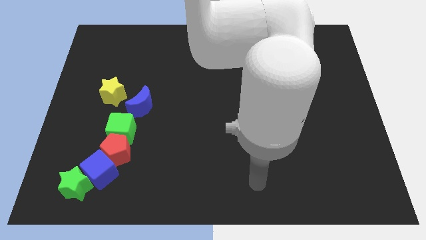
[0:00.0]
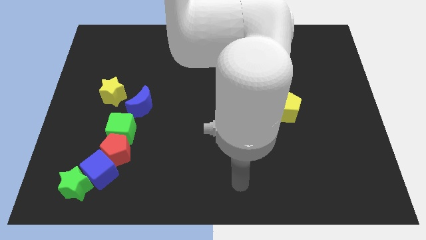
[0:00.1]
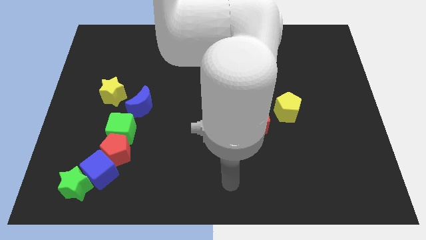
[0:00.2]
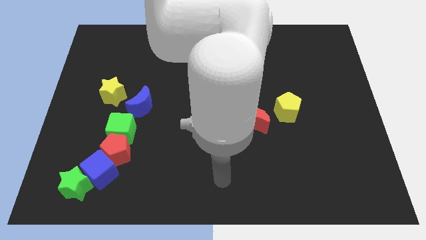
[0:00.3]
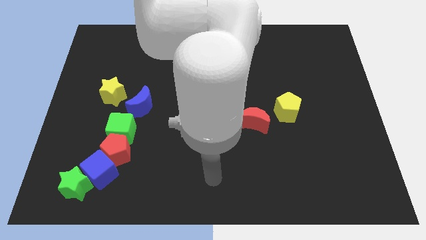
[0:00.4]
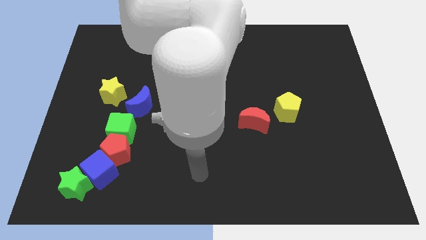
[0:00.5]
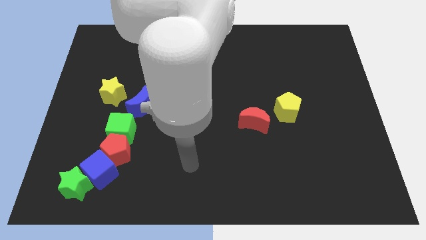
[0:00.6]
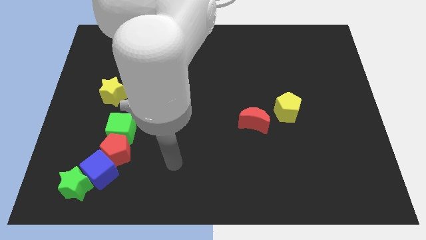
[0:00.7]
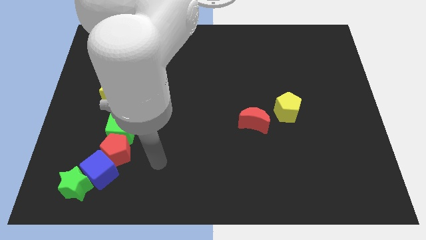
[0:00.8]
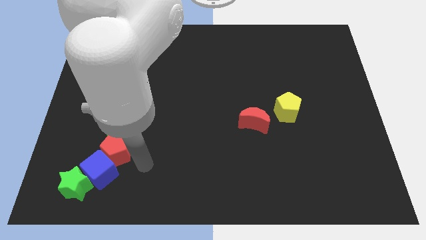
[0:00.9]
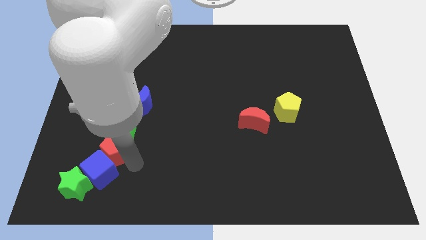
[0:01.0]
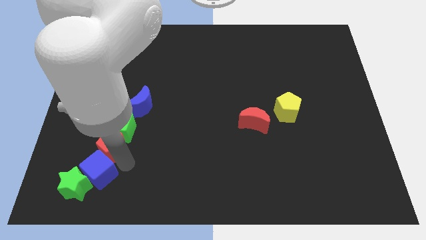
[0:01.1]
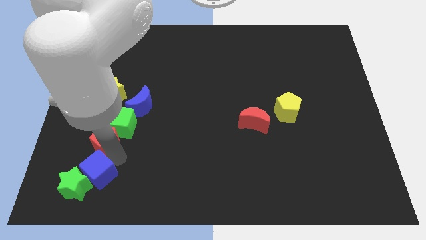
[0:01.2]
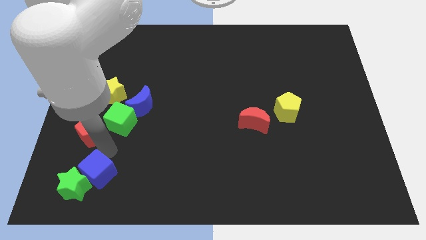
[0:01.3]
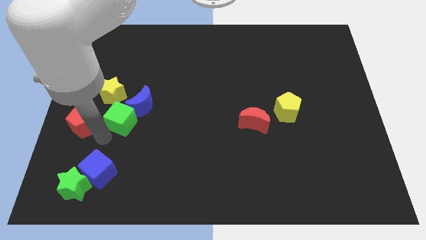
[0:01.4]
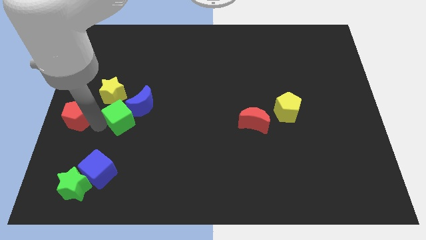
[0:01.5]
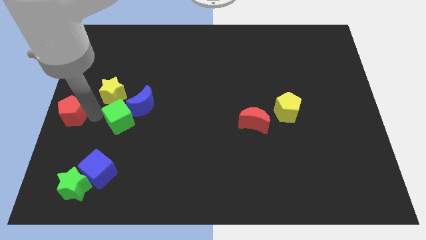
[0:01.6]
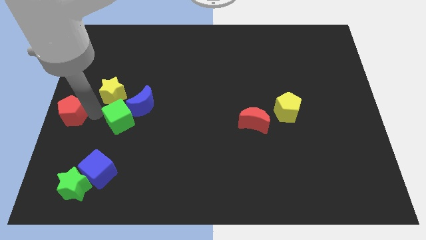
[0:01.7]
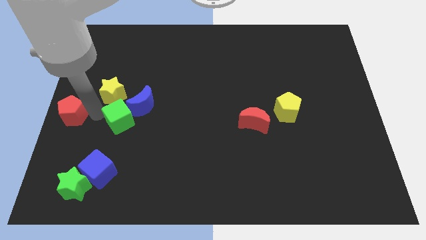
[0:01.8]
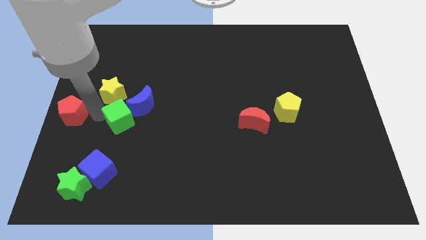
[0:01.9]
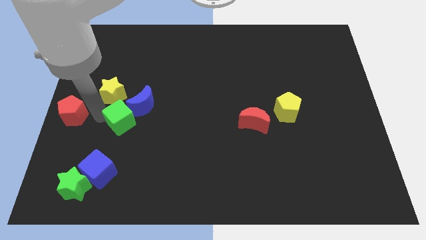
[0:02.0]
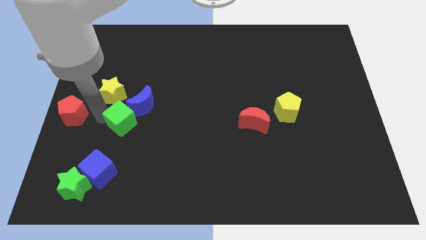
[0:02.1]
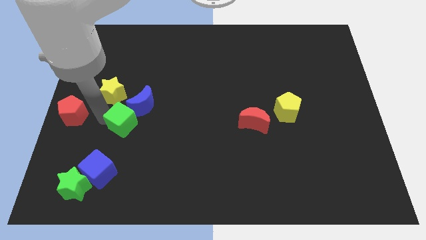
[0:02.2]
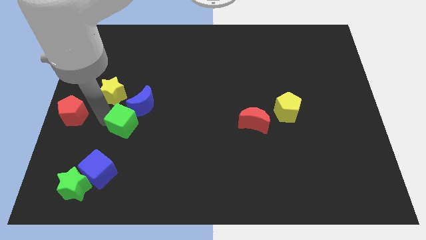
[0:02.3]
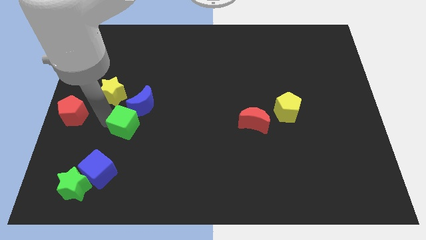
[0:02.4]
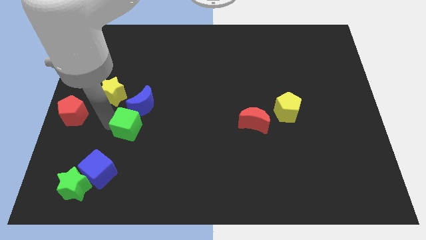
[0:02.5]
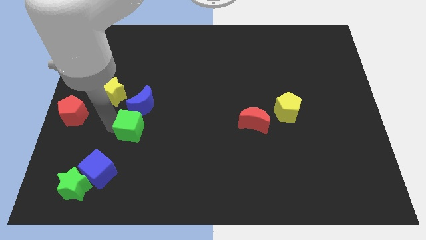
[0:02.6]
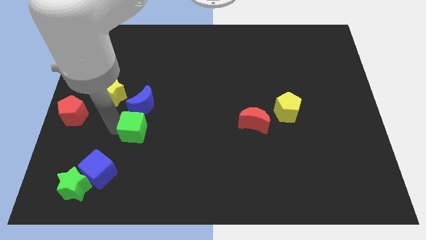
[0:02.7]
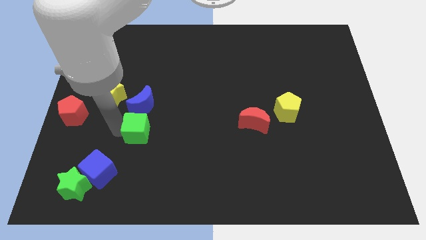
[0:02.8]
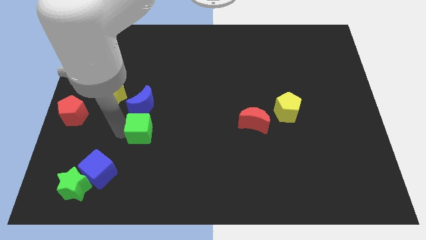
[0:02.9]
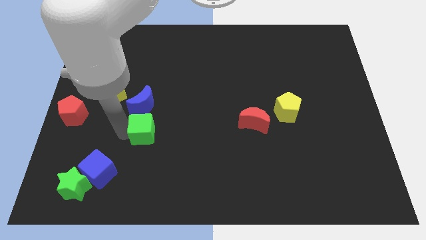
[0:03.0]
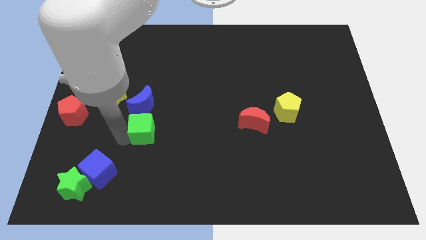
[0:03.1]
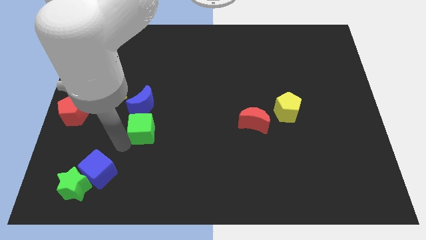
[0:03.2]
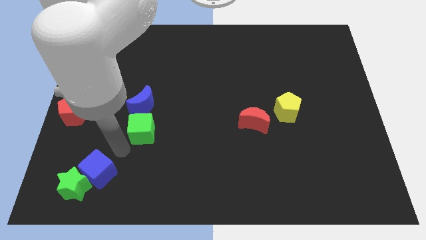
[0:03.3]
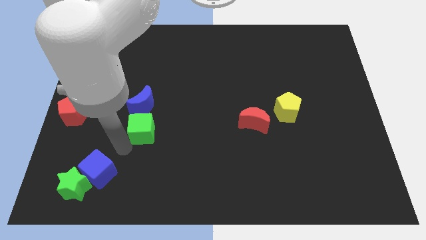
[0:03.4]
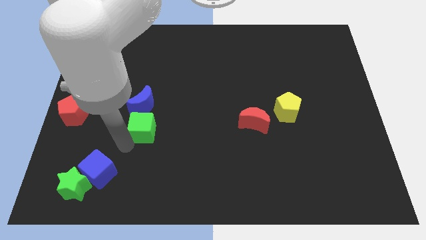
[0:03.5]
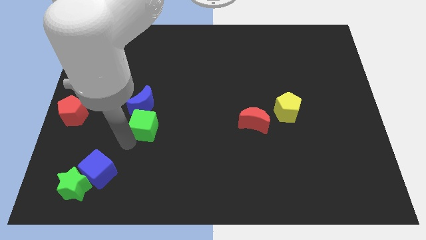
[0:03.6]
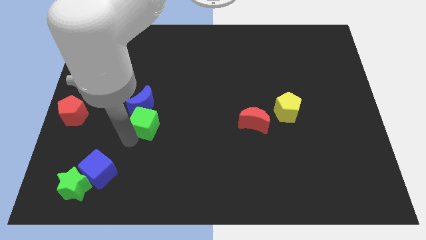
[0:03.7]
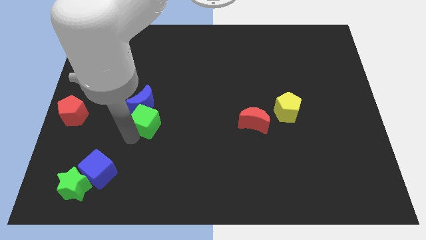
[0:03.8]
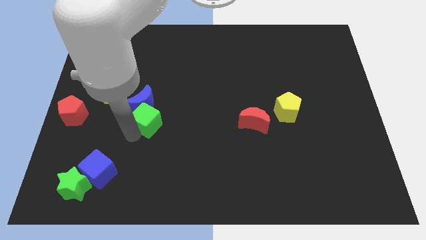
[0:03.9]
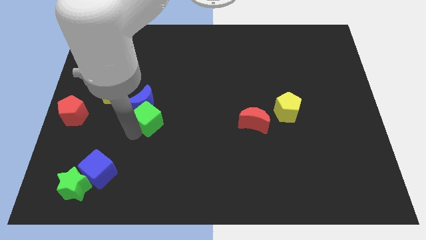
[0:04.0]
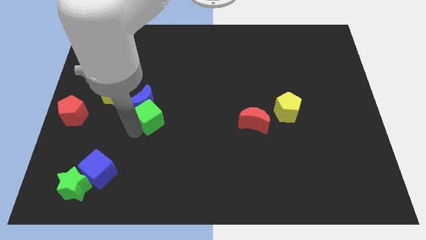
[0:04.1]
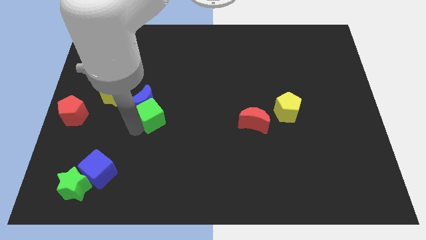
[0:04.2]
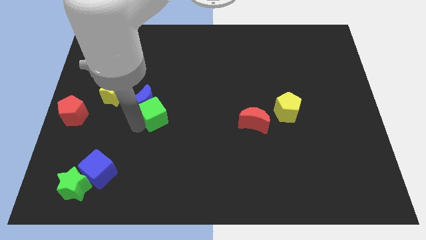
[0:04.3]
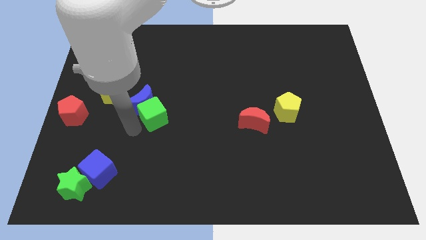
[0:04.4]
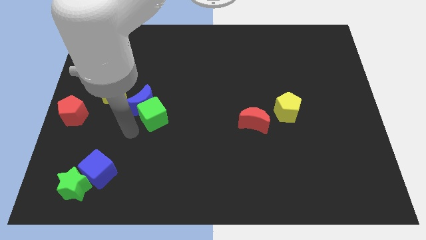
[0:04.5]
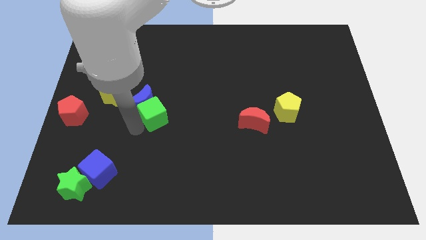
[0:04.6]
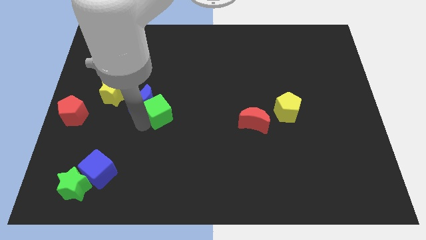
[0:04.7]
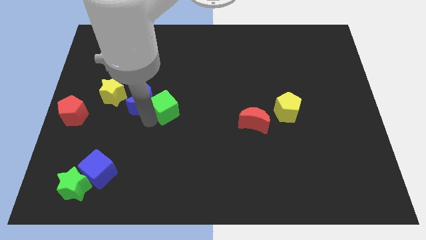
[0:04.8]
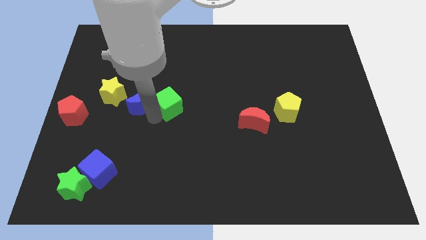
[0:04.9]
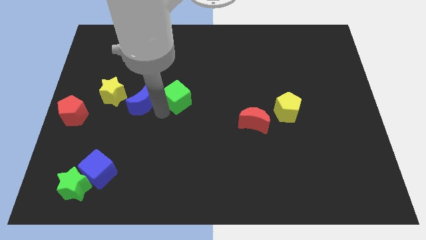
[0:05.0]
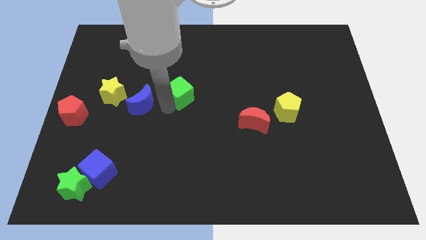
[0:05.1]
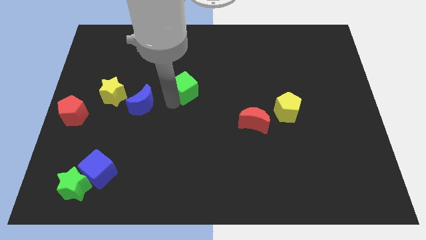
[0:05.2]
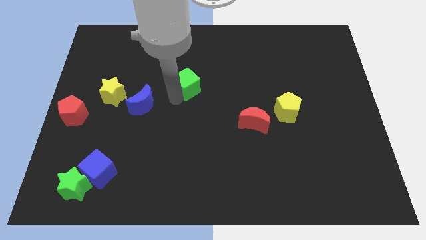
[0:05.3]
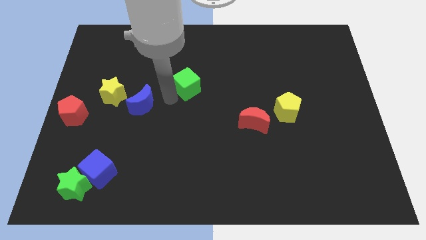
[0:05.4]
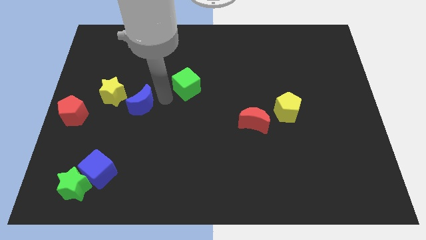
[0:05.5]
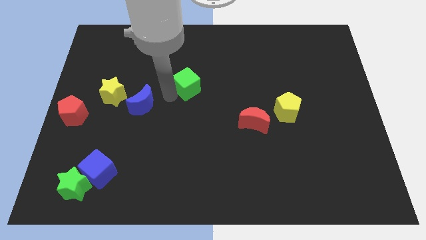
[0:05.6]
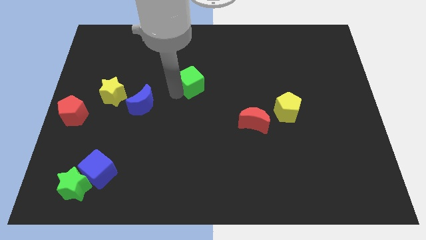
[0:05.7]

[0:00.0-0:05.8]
push the green cube upwards and then right

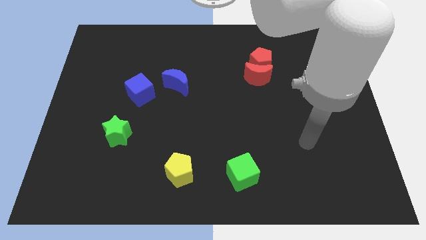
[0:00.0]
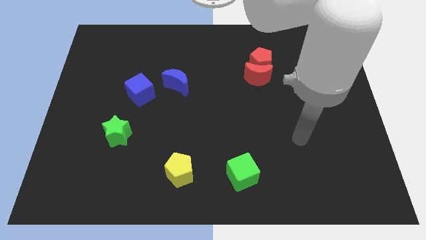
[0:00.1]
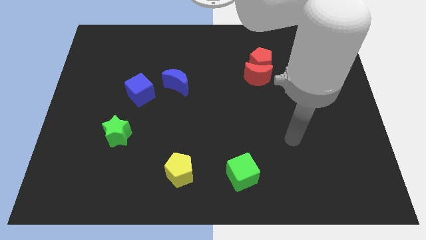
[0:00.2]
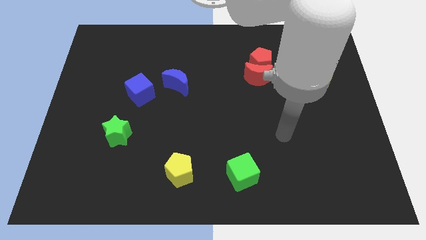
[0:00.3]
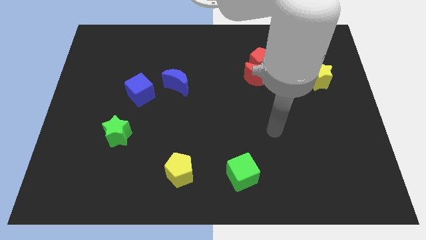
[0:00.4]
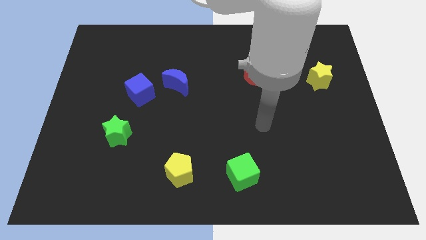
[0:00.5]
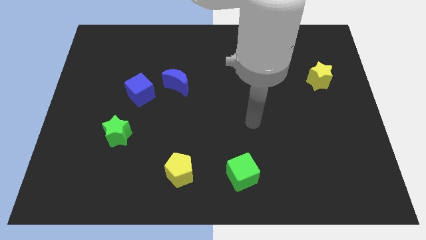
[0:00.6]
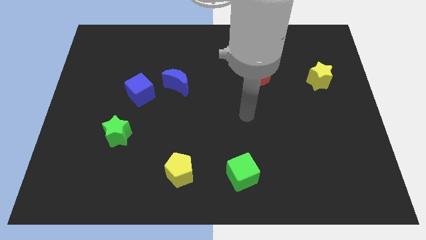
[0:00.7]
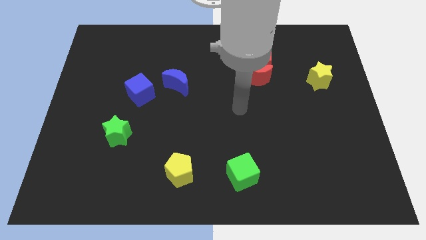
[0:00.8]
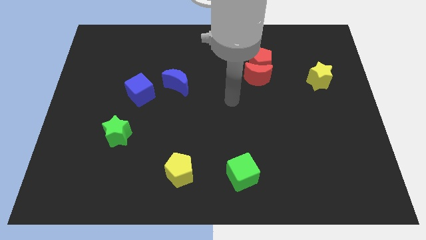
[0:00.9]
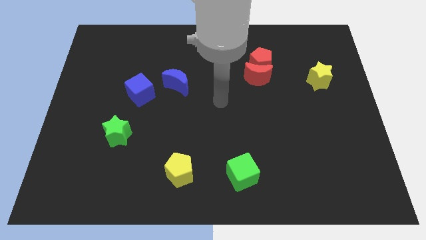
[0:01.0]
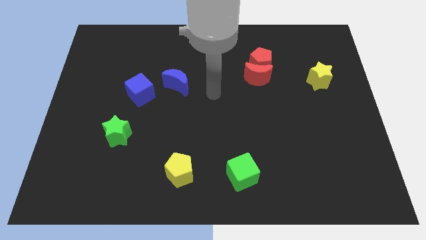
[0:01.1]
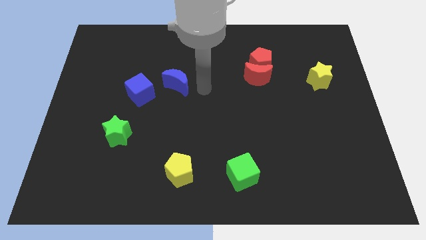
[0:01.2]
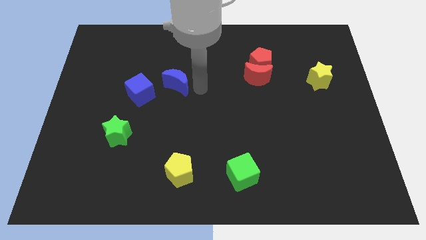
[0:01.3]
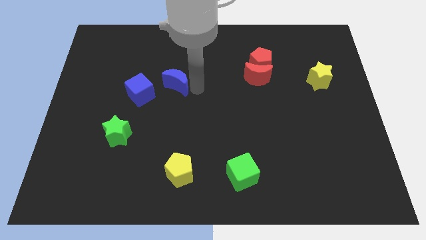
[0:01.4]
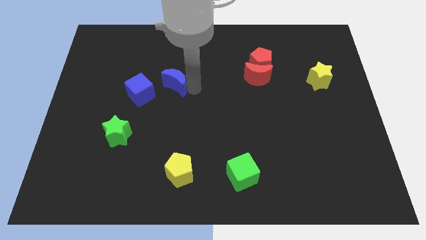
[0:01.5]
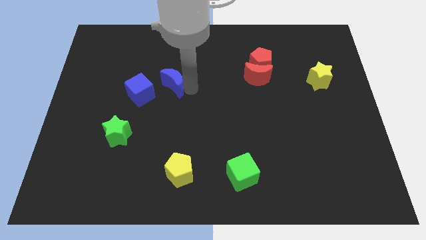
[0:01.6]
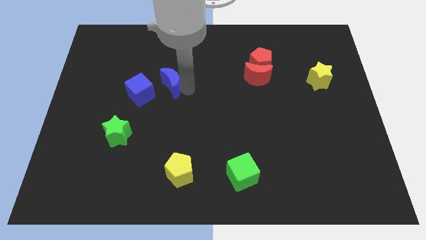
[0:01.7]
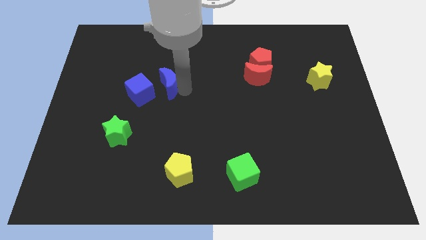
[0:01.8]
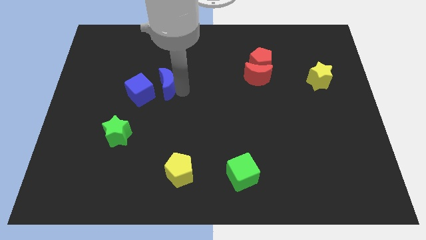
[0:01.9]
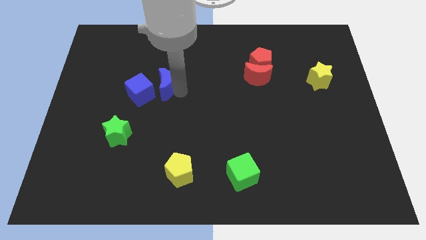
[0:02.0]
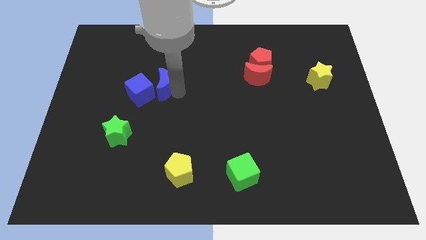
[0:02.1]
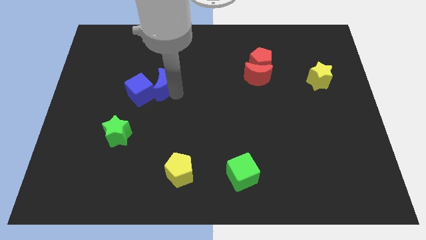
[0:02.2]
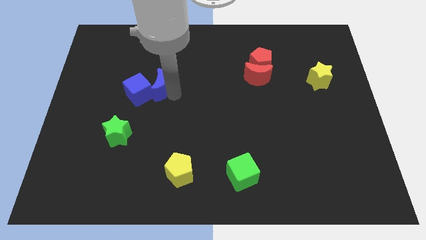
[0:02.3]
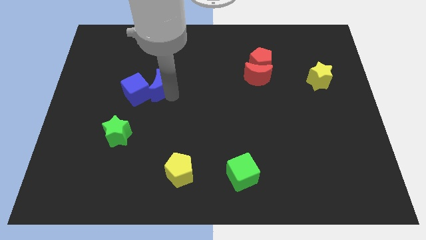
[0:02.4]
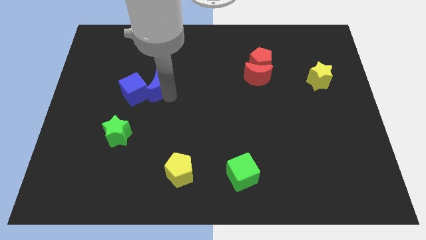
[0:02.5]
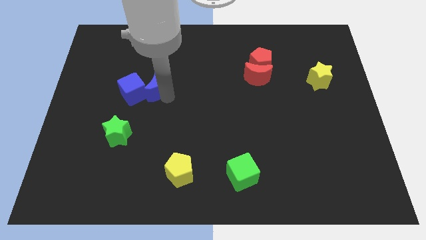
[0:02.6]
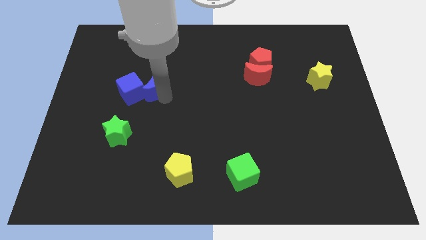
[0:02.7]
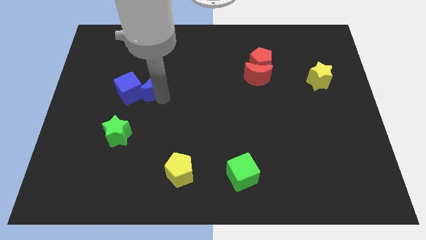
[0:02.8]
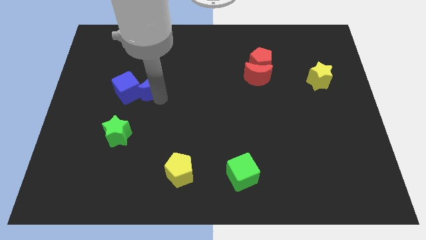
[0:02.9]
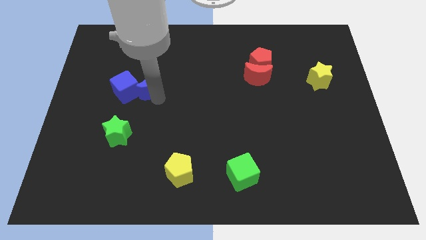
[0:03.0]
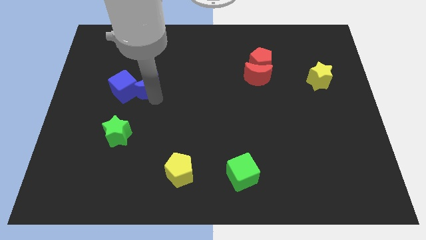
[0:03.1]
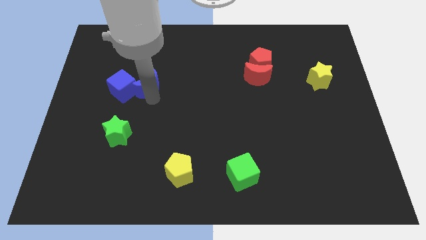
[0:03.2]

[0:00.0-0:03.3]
push the blue moon to the left a bit
